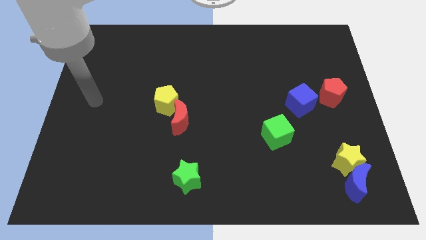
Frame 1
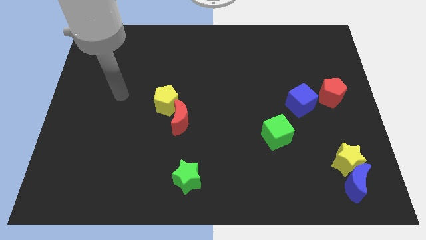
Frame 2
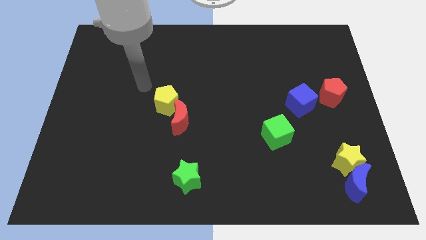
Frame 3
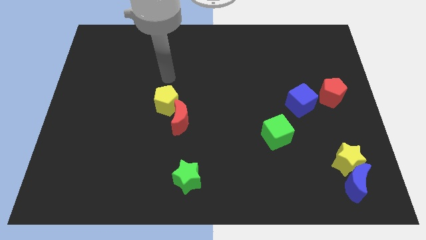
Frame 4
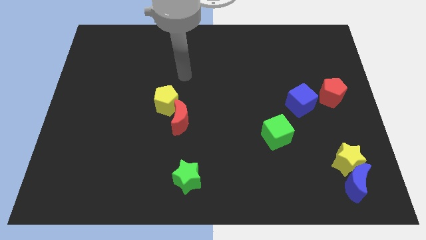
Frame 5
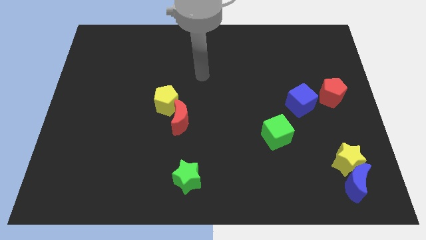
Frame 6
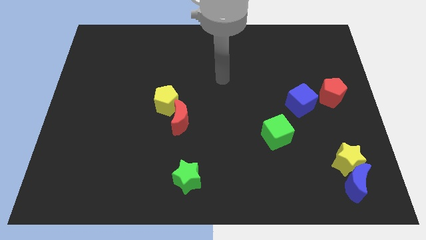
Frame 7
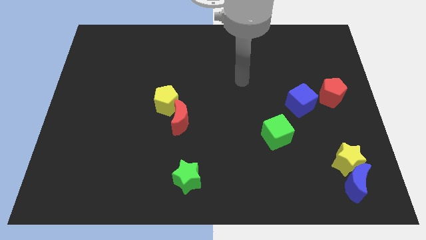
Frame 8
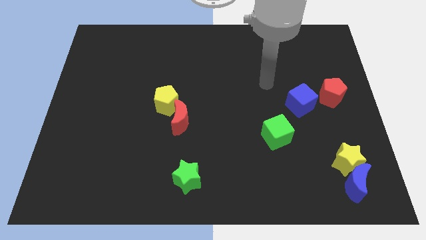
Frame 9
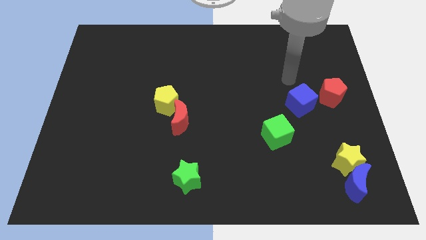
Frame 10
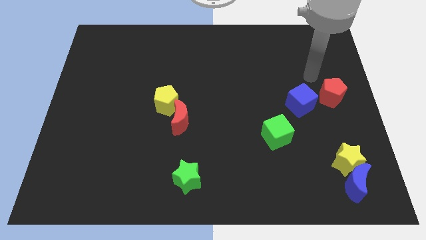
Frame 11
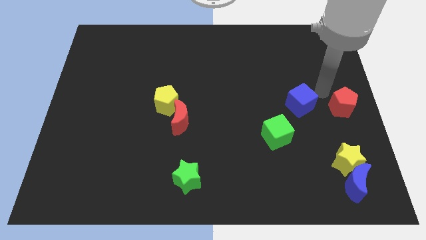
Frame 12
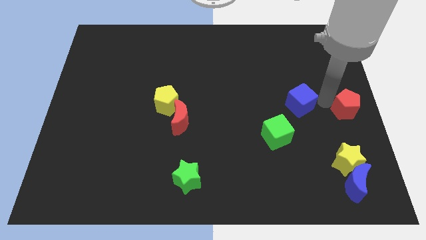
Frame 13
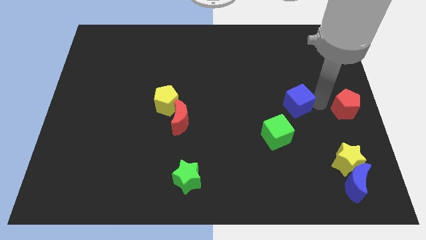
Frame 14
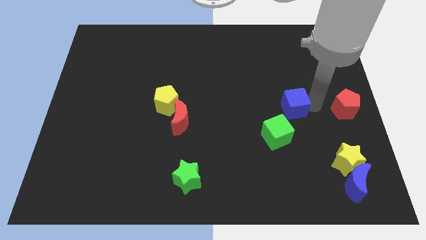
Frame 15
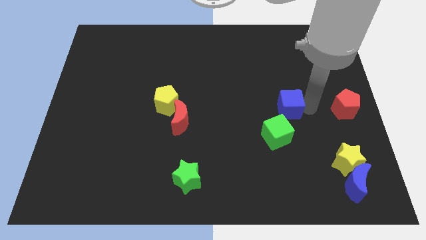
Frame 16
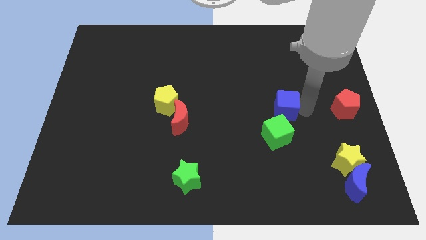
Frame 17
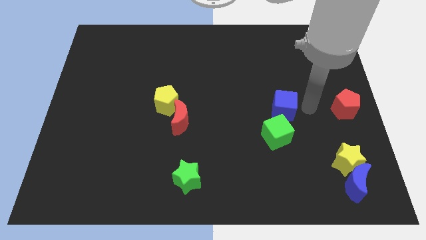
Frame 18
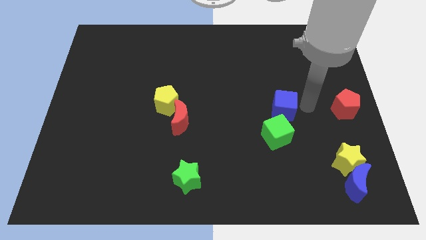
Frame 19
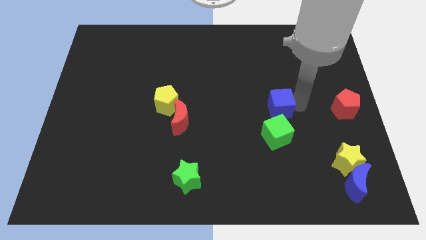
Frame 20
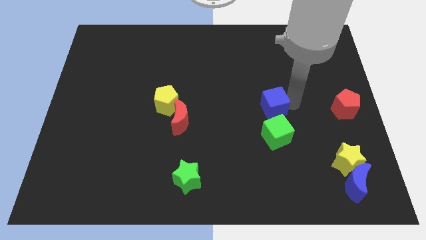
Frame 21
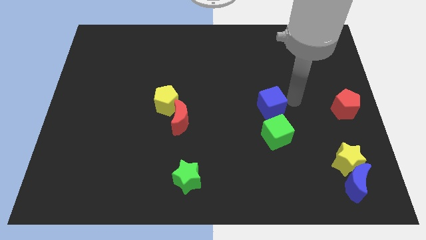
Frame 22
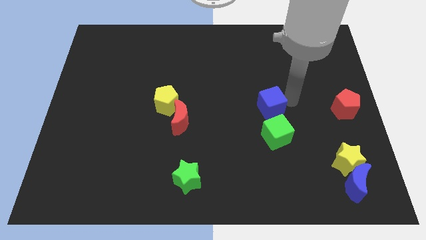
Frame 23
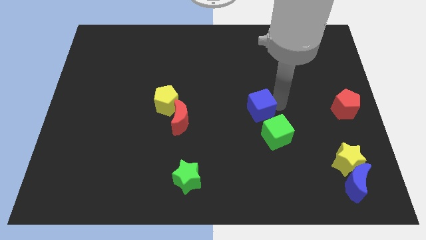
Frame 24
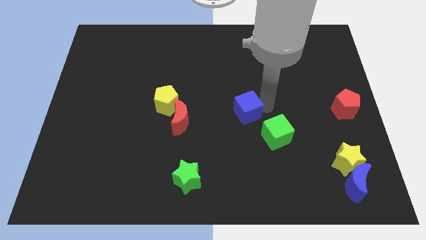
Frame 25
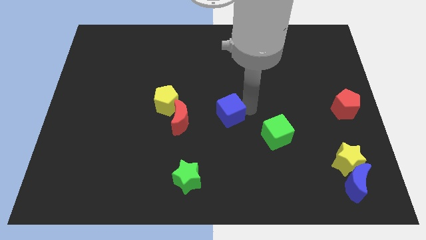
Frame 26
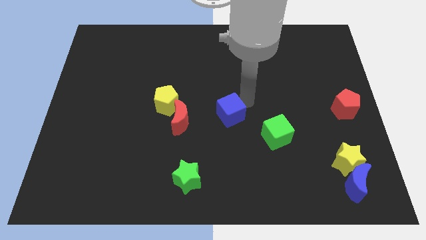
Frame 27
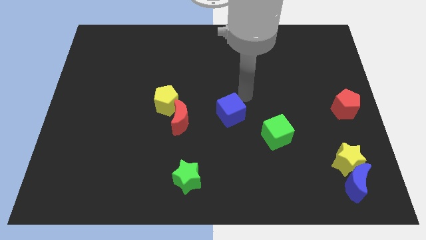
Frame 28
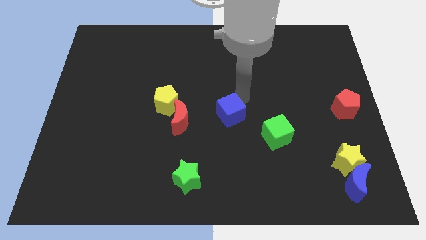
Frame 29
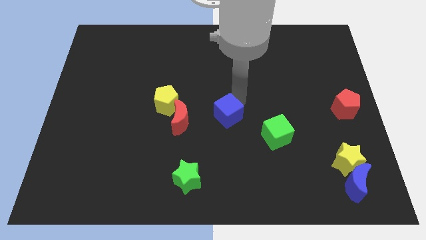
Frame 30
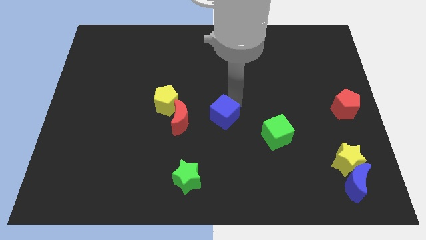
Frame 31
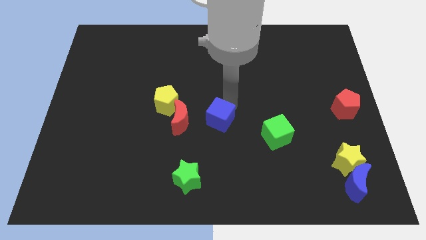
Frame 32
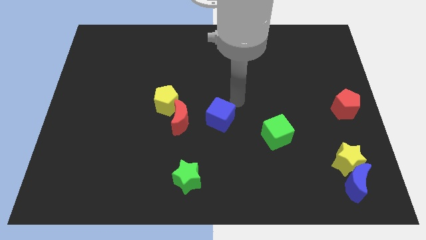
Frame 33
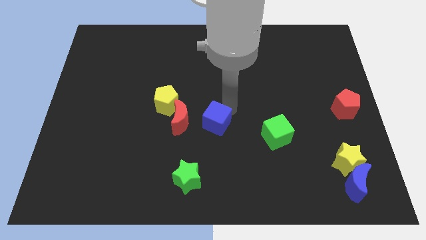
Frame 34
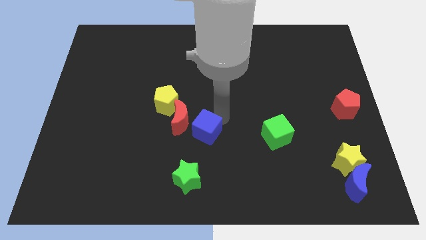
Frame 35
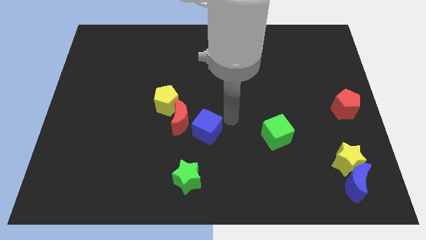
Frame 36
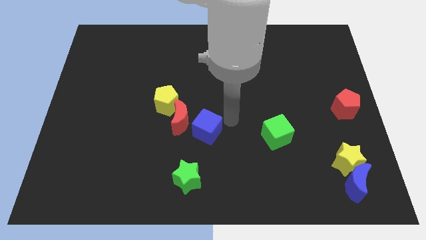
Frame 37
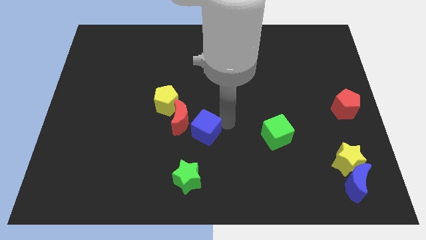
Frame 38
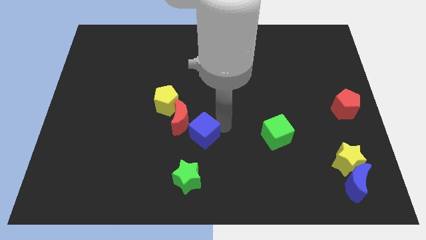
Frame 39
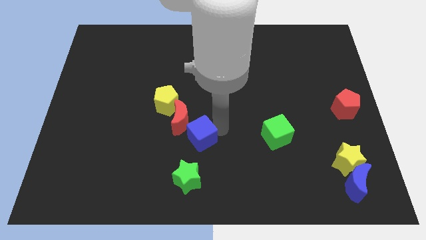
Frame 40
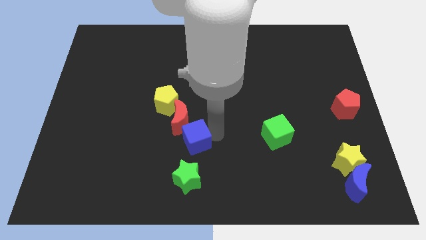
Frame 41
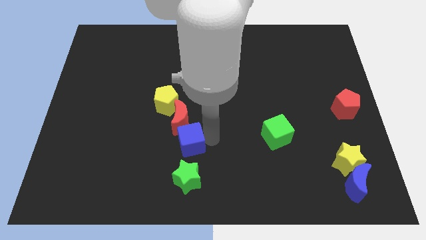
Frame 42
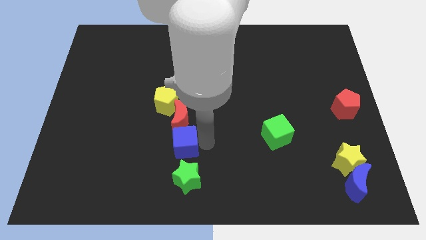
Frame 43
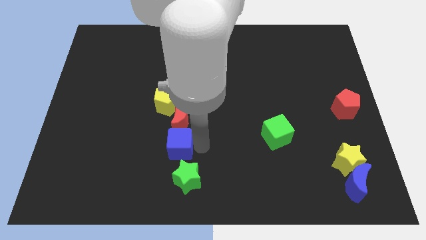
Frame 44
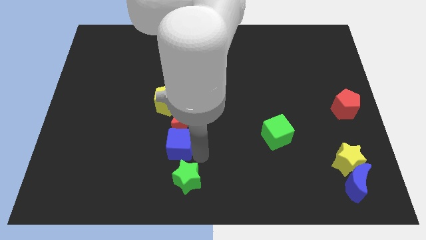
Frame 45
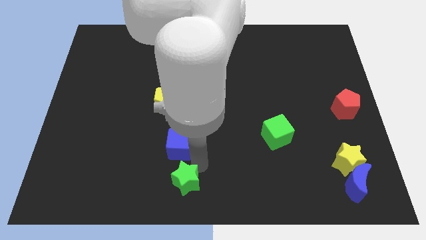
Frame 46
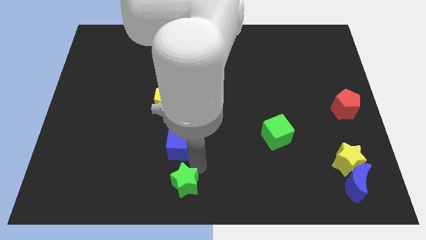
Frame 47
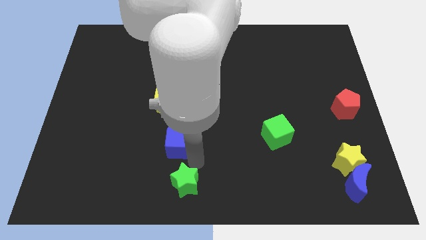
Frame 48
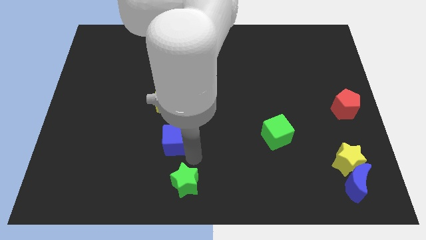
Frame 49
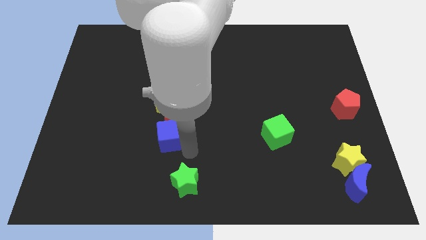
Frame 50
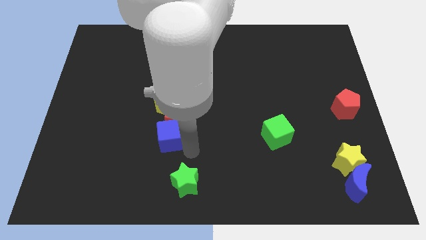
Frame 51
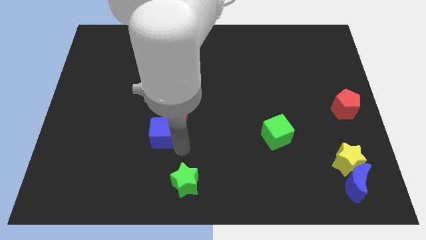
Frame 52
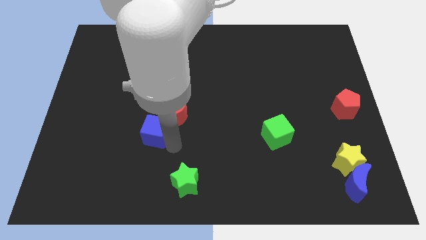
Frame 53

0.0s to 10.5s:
put the blue cube left of the red moon

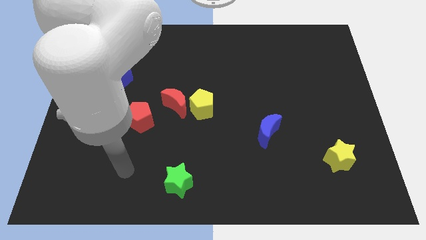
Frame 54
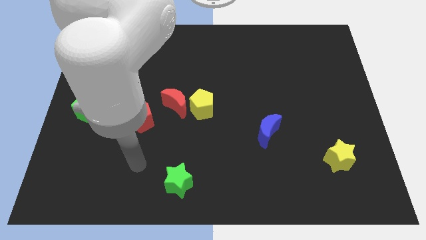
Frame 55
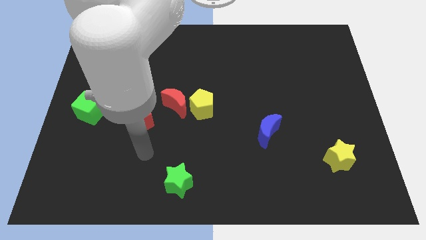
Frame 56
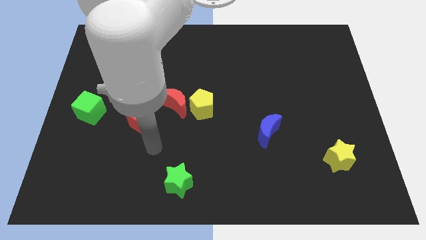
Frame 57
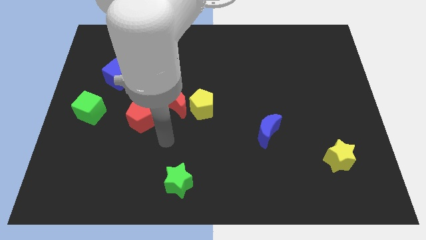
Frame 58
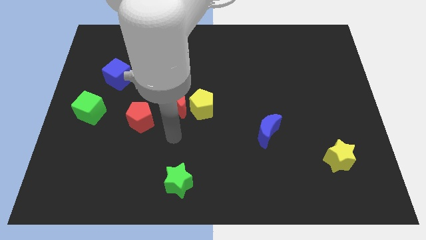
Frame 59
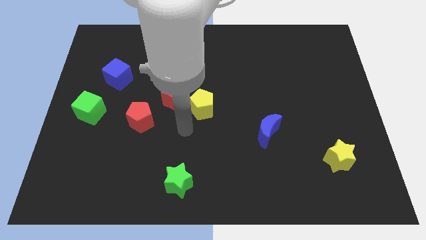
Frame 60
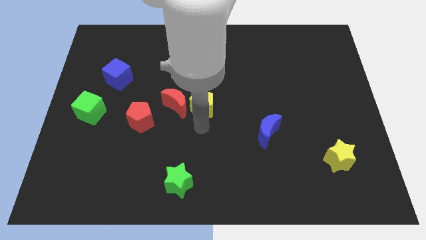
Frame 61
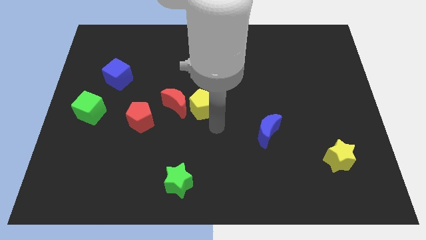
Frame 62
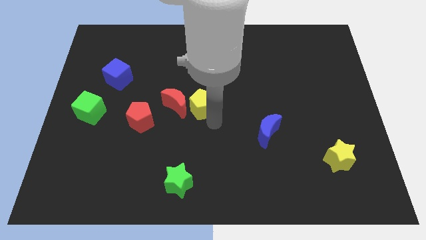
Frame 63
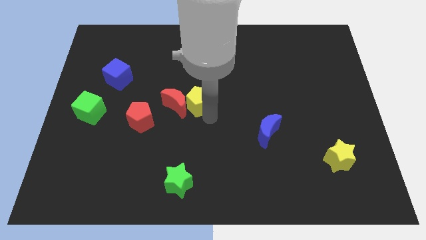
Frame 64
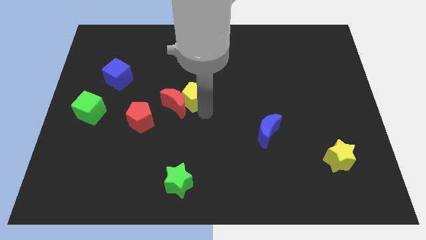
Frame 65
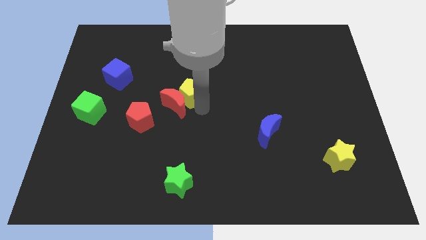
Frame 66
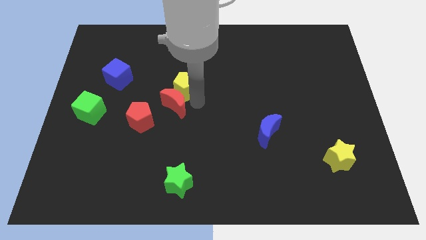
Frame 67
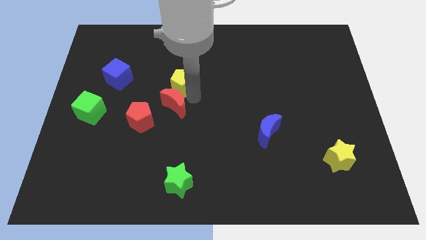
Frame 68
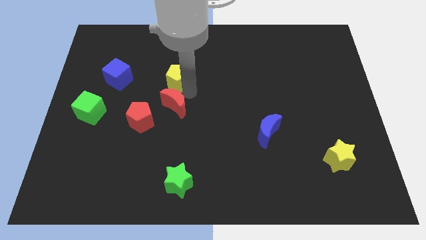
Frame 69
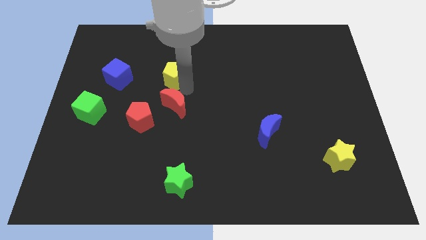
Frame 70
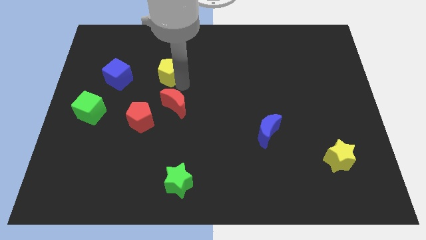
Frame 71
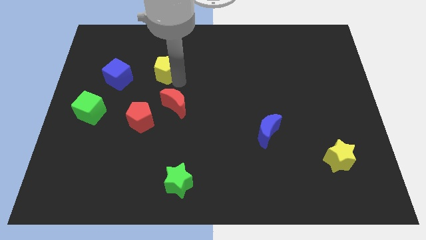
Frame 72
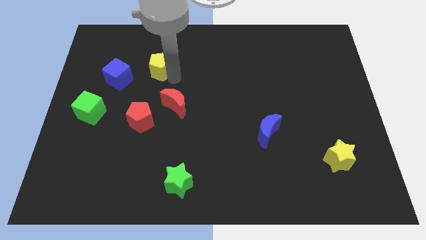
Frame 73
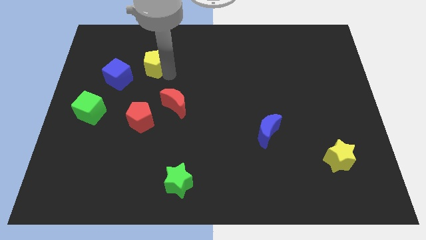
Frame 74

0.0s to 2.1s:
move the yellow pentagon to the top right of the blue cube
